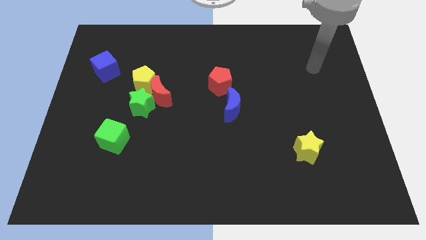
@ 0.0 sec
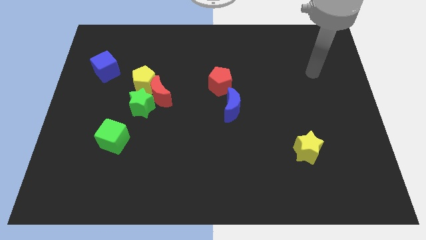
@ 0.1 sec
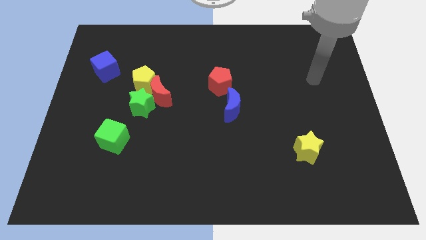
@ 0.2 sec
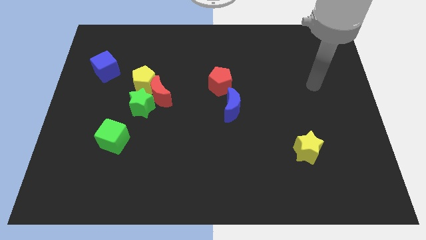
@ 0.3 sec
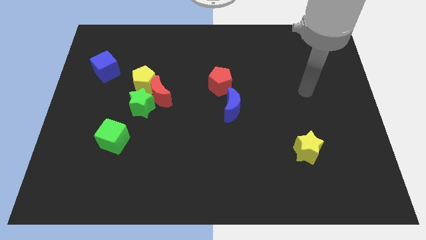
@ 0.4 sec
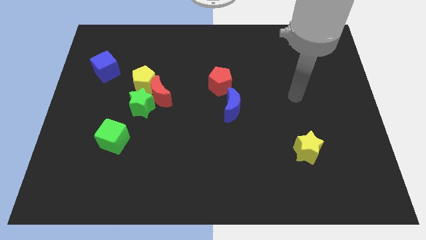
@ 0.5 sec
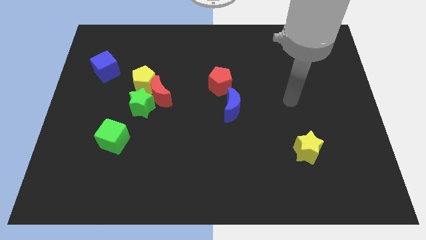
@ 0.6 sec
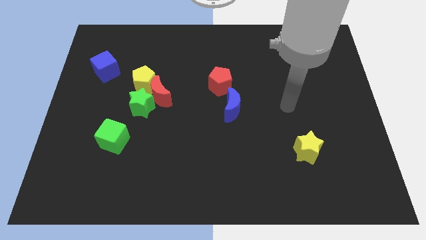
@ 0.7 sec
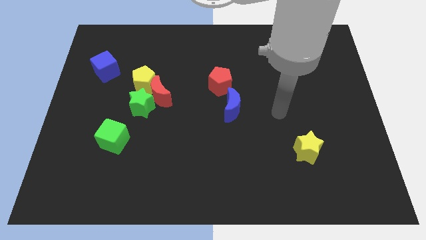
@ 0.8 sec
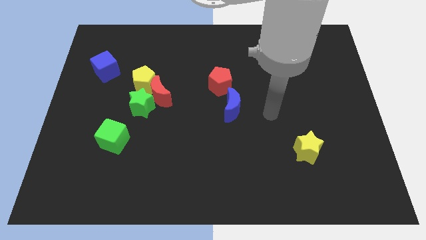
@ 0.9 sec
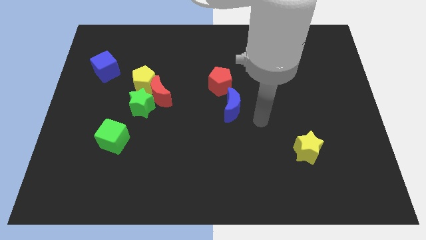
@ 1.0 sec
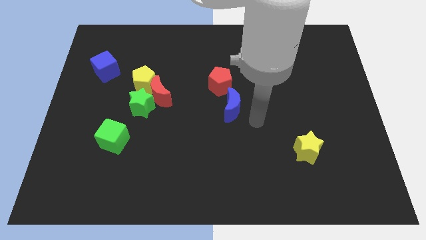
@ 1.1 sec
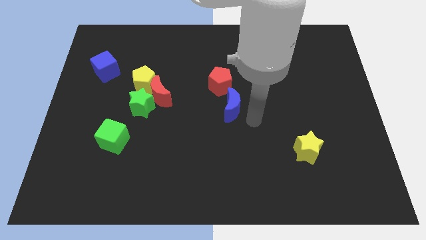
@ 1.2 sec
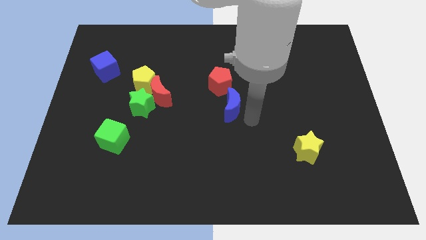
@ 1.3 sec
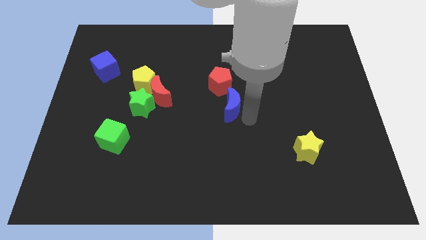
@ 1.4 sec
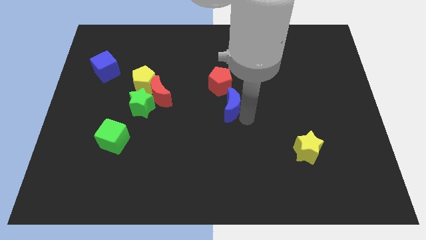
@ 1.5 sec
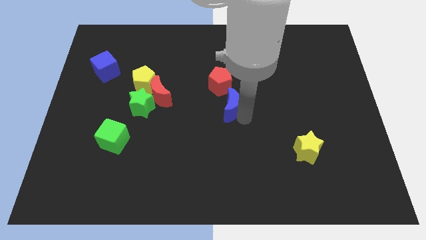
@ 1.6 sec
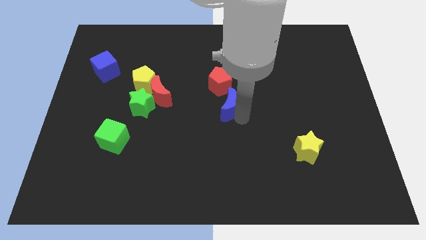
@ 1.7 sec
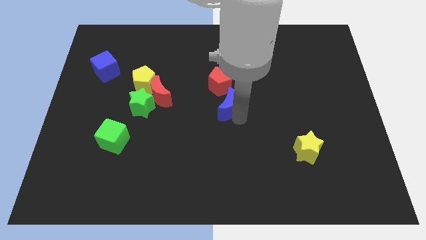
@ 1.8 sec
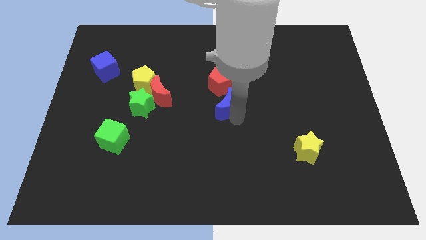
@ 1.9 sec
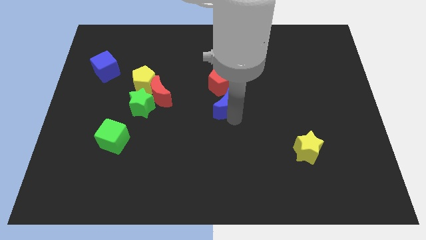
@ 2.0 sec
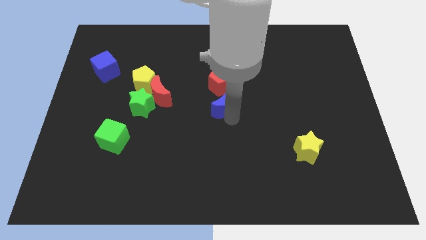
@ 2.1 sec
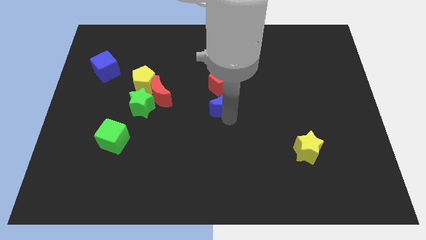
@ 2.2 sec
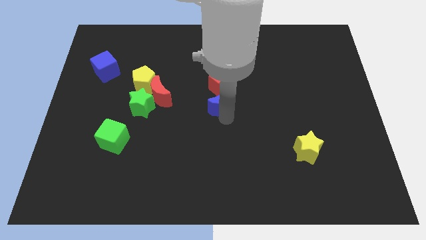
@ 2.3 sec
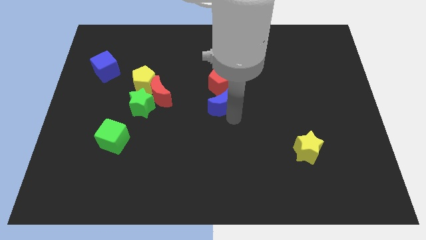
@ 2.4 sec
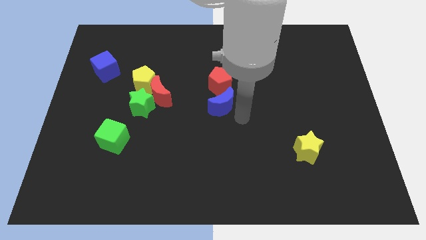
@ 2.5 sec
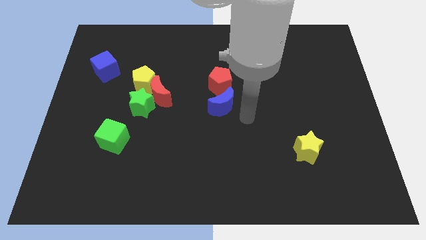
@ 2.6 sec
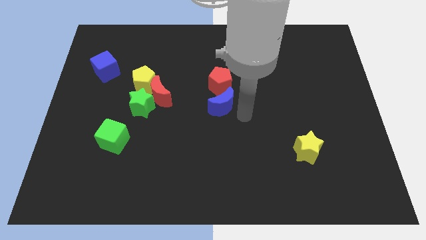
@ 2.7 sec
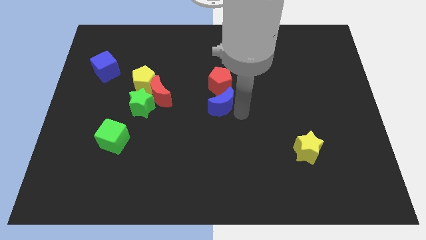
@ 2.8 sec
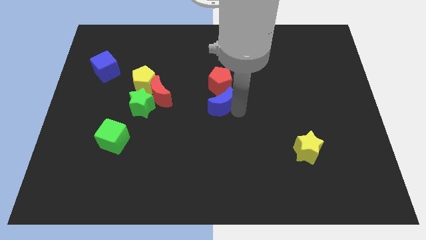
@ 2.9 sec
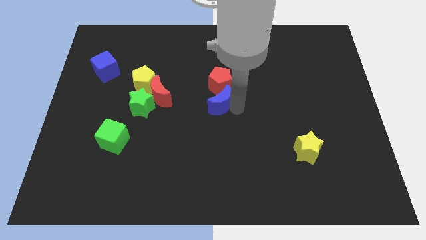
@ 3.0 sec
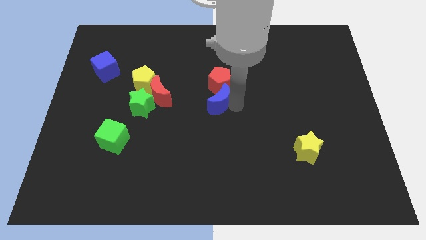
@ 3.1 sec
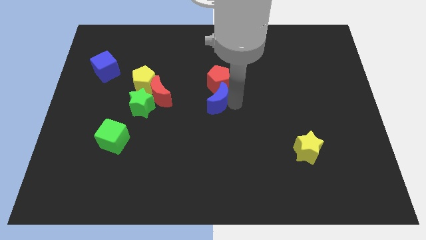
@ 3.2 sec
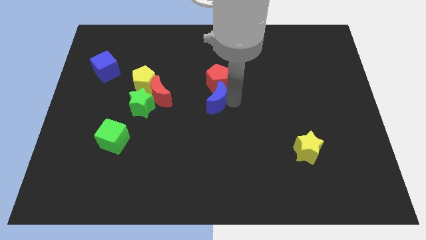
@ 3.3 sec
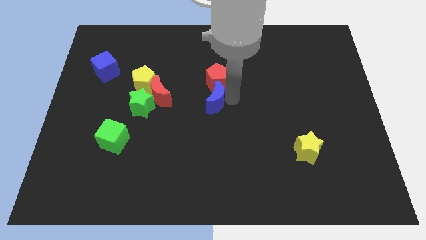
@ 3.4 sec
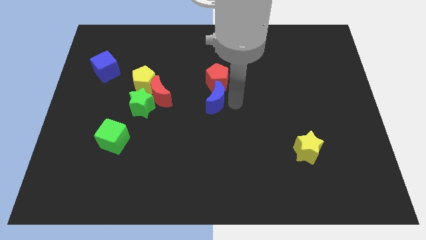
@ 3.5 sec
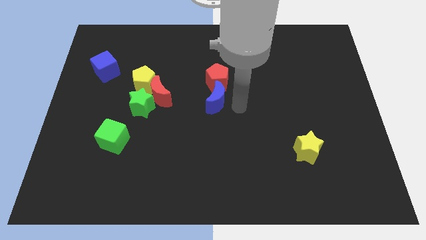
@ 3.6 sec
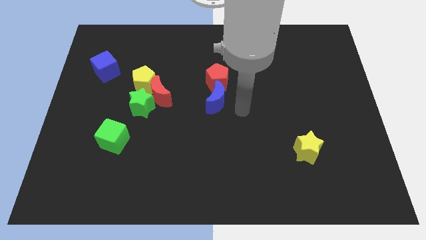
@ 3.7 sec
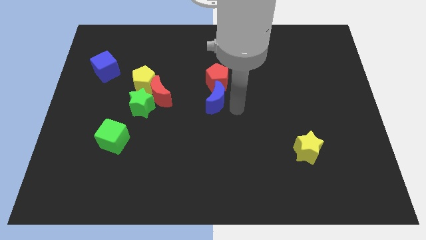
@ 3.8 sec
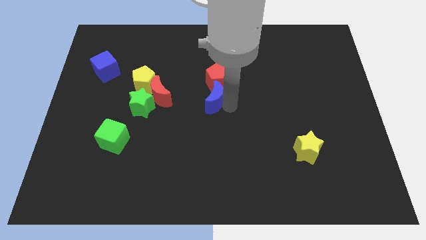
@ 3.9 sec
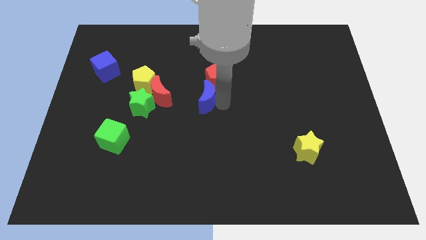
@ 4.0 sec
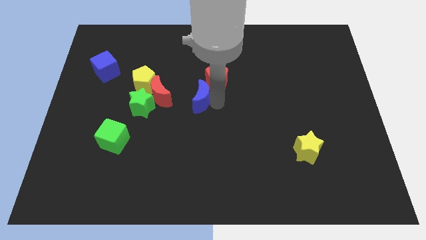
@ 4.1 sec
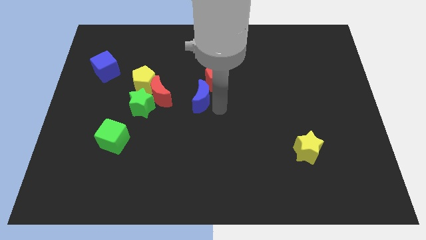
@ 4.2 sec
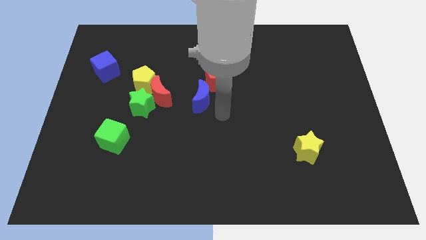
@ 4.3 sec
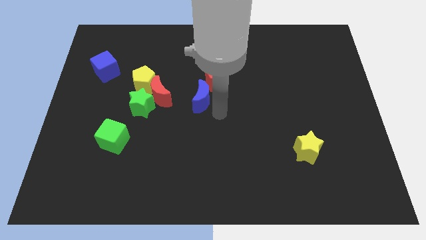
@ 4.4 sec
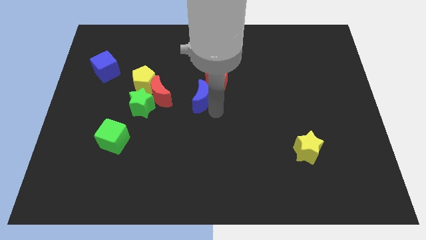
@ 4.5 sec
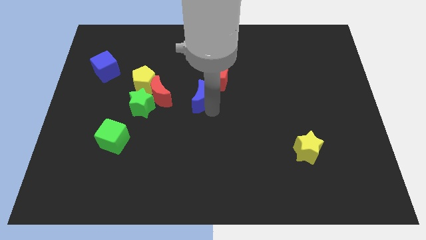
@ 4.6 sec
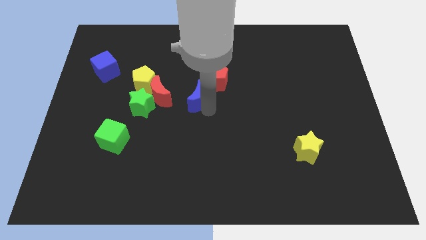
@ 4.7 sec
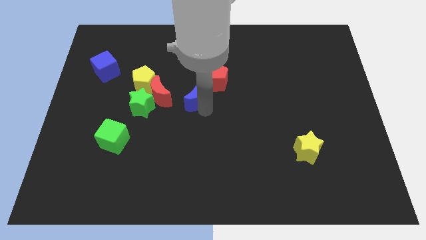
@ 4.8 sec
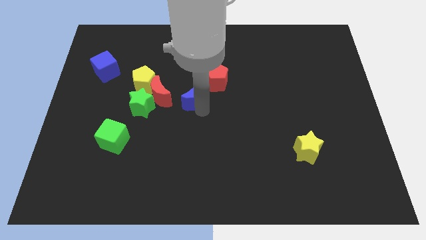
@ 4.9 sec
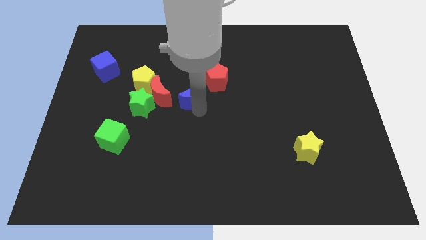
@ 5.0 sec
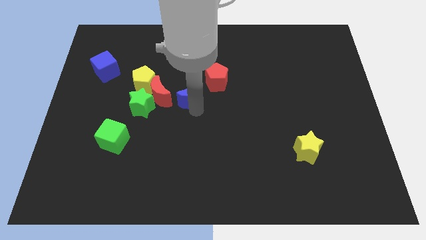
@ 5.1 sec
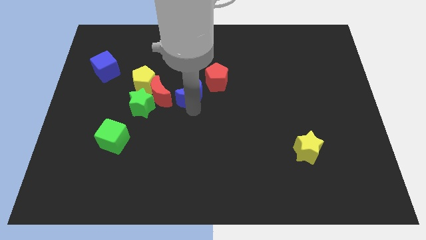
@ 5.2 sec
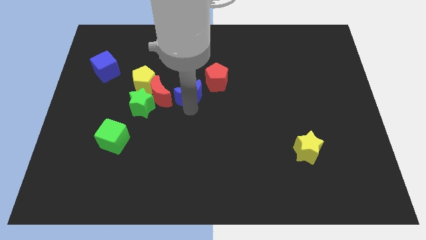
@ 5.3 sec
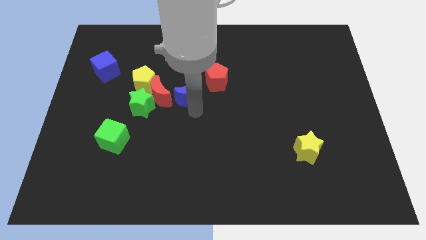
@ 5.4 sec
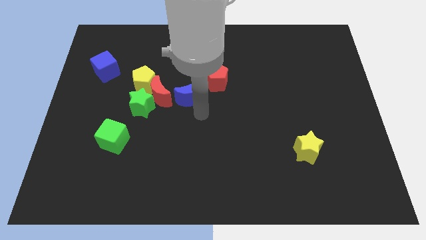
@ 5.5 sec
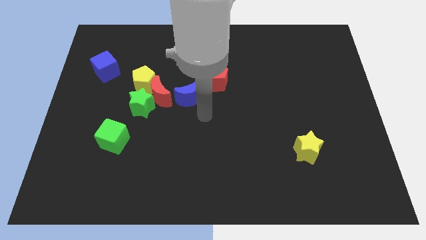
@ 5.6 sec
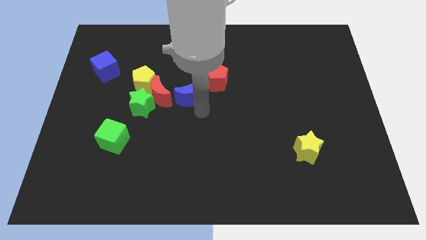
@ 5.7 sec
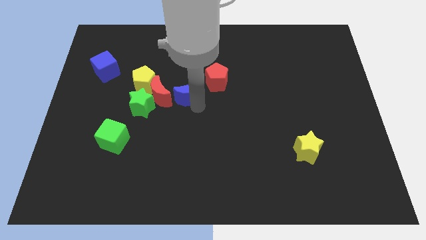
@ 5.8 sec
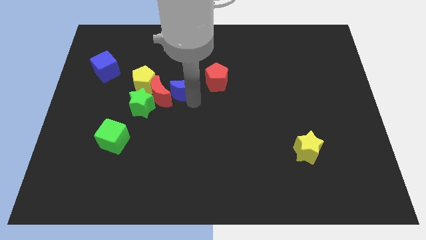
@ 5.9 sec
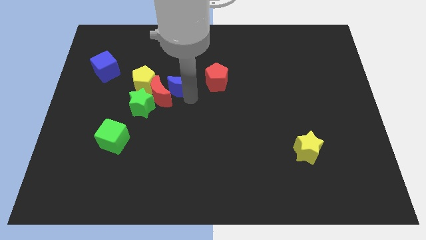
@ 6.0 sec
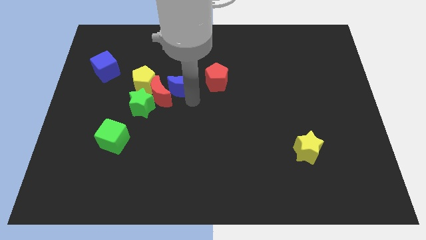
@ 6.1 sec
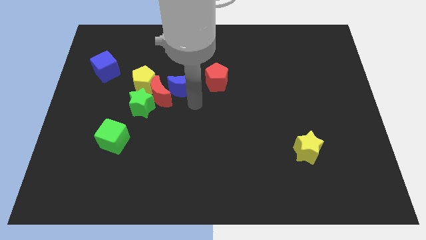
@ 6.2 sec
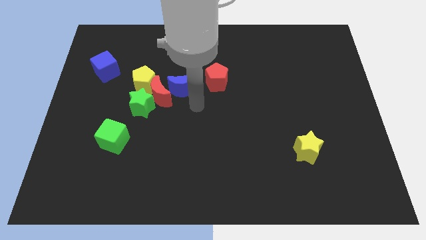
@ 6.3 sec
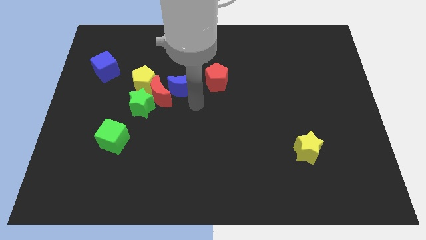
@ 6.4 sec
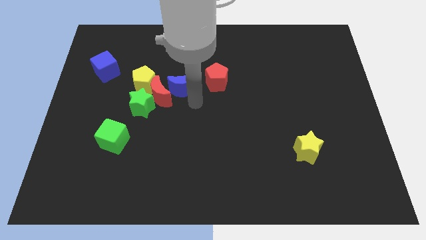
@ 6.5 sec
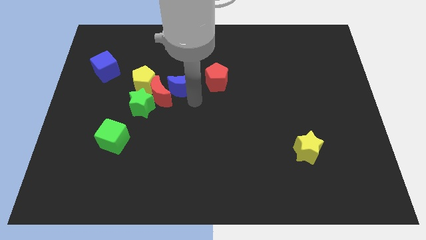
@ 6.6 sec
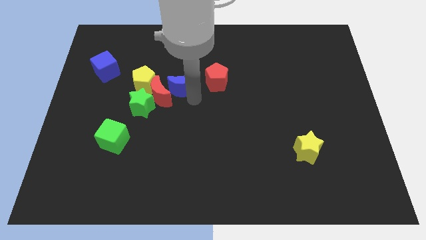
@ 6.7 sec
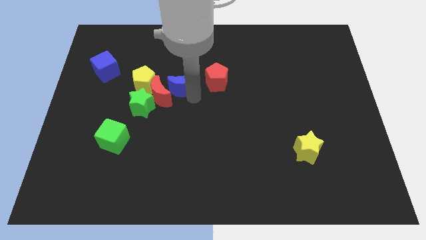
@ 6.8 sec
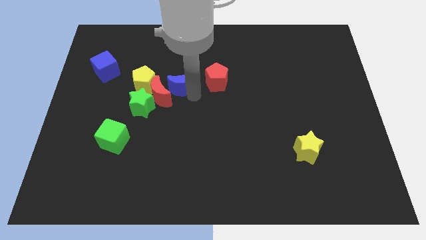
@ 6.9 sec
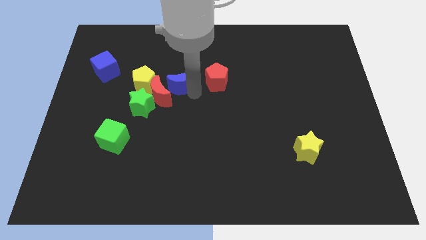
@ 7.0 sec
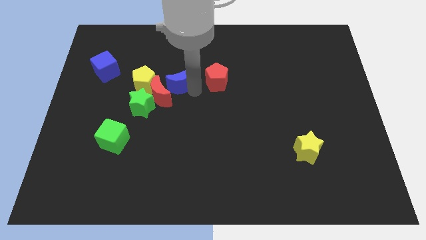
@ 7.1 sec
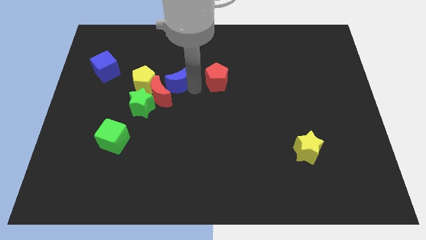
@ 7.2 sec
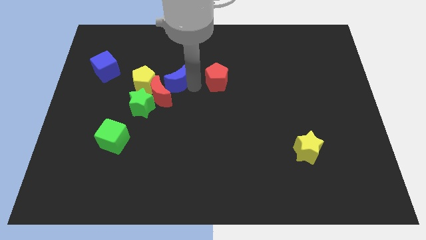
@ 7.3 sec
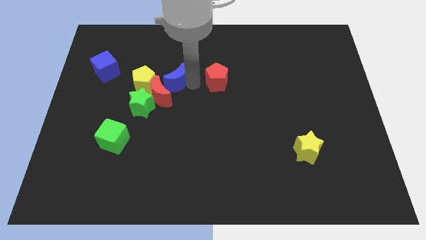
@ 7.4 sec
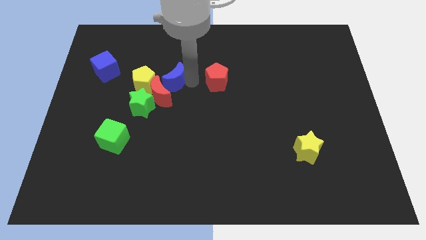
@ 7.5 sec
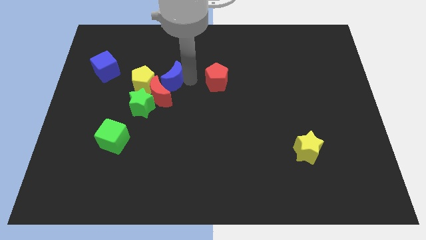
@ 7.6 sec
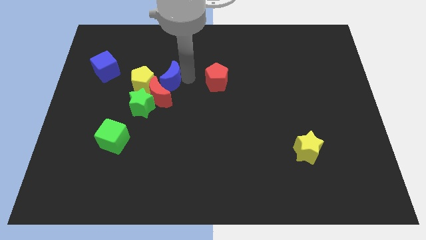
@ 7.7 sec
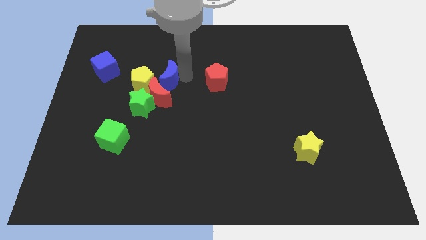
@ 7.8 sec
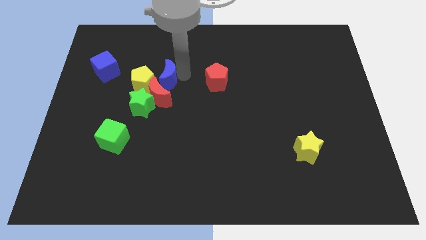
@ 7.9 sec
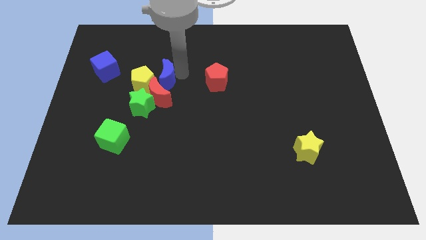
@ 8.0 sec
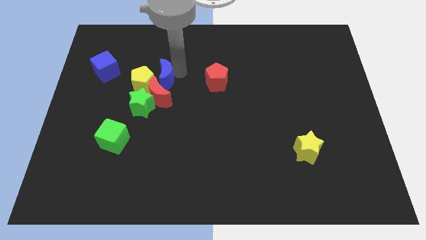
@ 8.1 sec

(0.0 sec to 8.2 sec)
slide the blue moon towards the yellow pentagon
